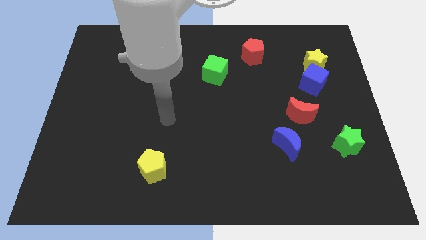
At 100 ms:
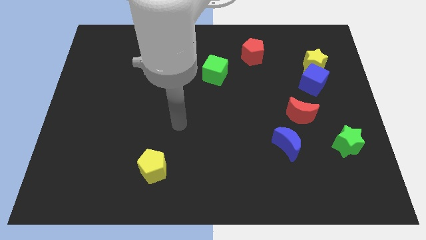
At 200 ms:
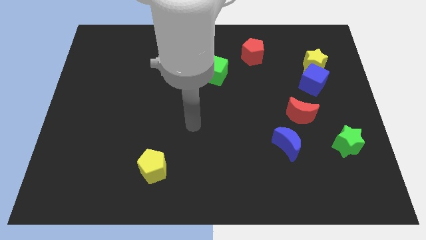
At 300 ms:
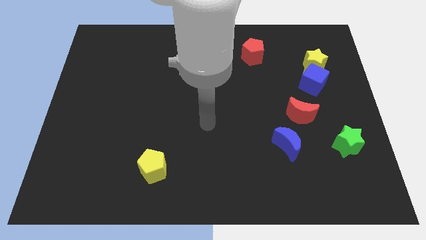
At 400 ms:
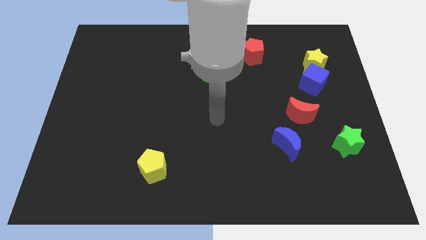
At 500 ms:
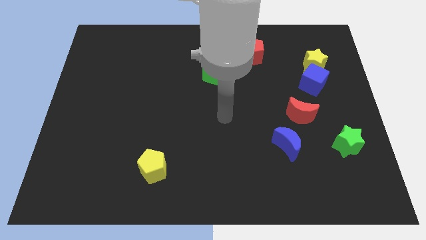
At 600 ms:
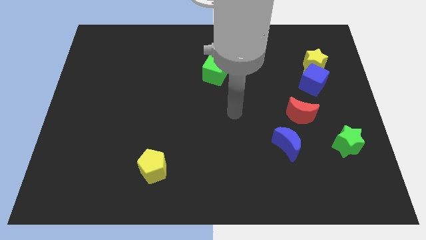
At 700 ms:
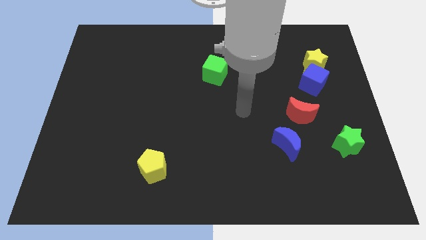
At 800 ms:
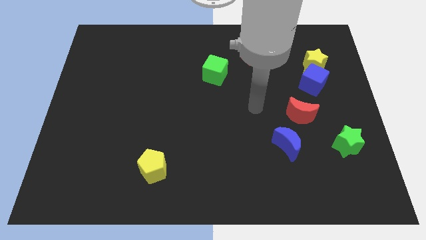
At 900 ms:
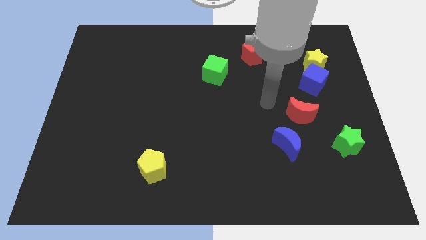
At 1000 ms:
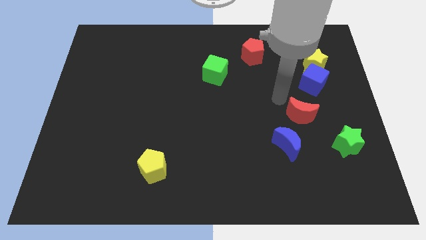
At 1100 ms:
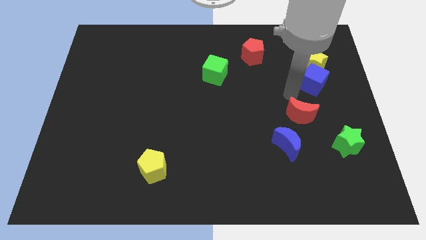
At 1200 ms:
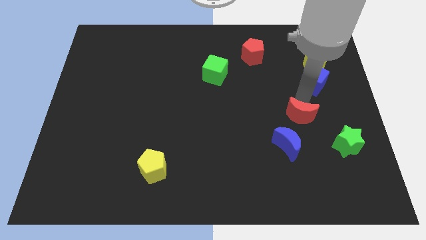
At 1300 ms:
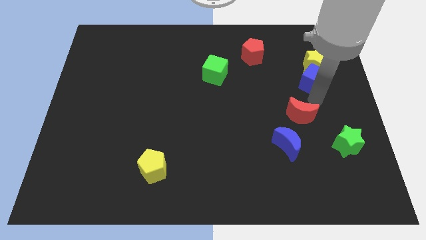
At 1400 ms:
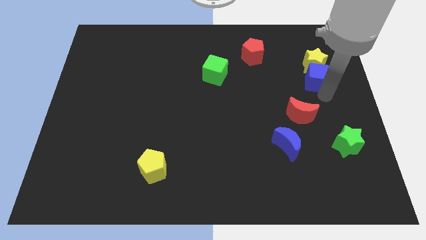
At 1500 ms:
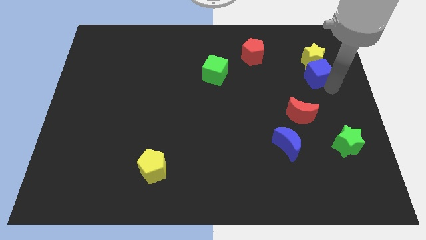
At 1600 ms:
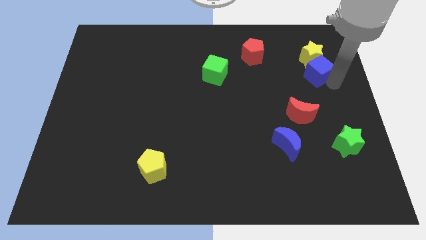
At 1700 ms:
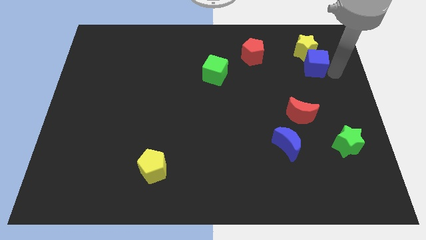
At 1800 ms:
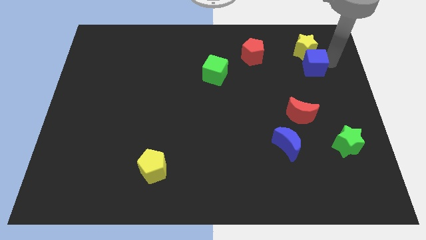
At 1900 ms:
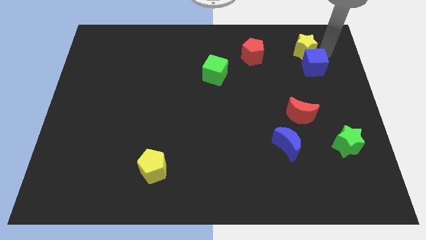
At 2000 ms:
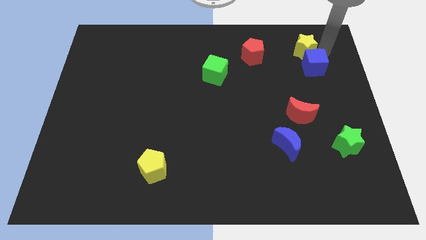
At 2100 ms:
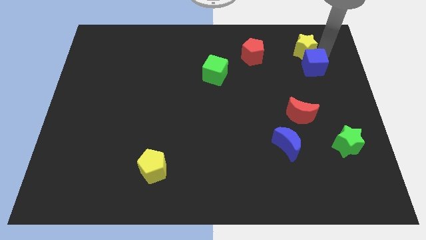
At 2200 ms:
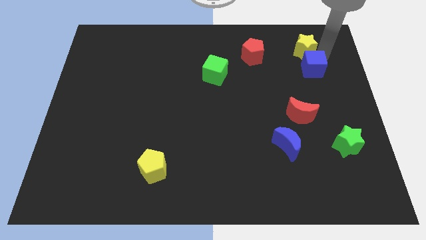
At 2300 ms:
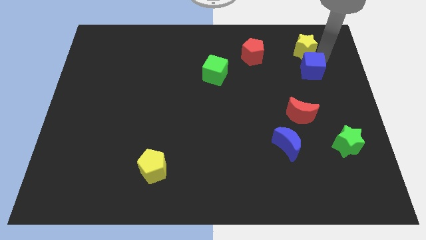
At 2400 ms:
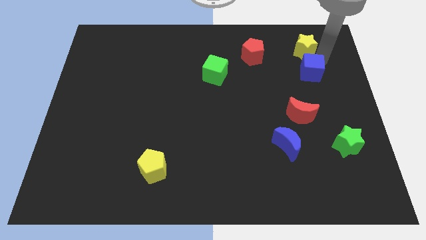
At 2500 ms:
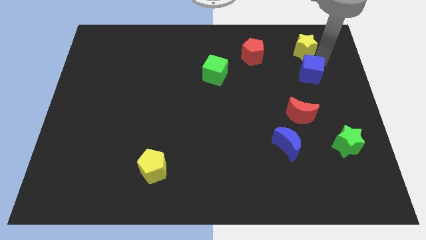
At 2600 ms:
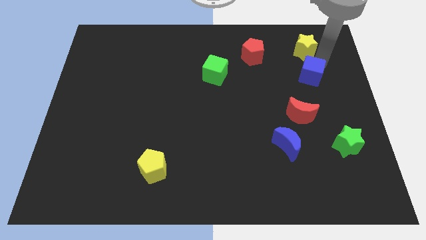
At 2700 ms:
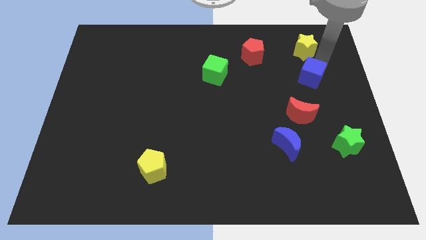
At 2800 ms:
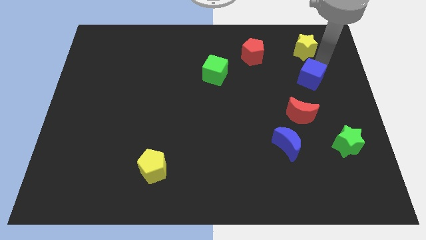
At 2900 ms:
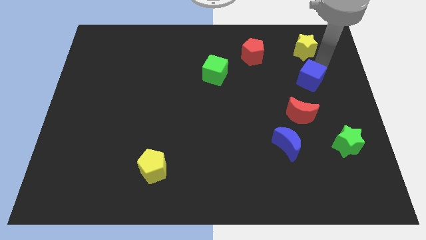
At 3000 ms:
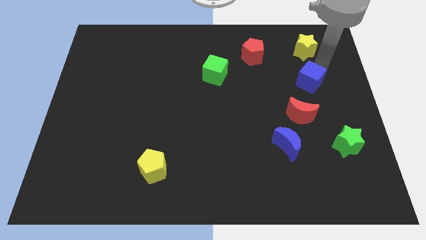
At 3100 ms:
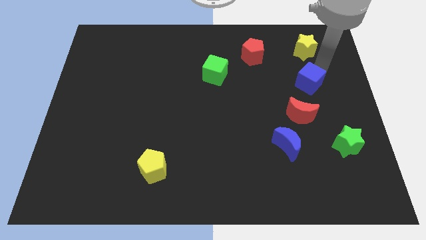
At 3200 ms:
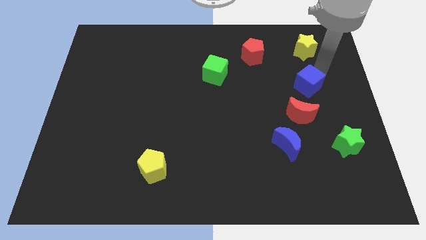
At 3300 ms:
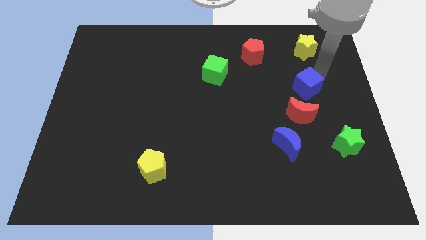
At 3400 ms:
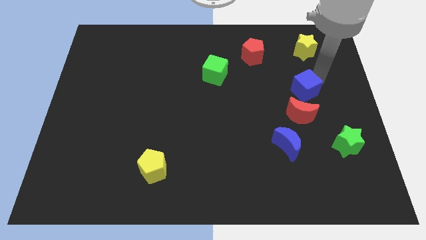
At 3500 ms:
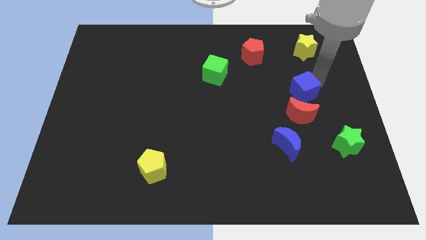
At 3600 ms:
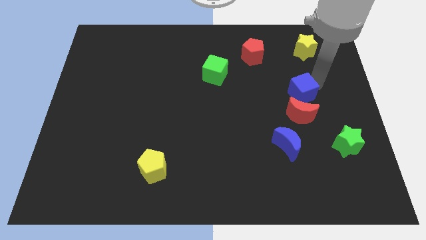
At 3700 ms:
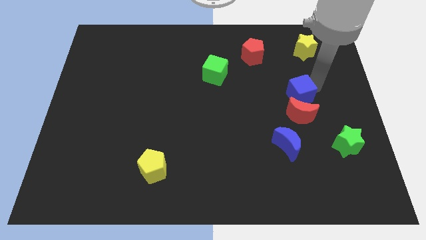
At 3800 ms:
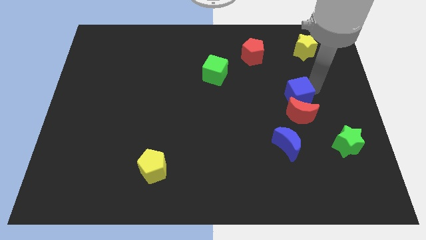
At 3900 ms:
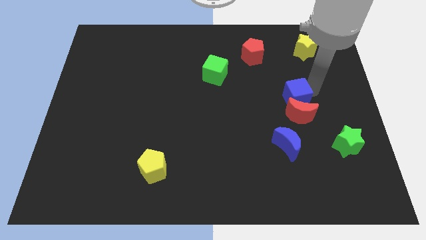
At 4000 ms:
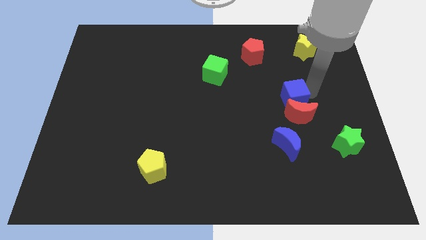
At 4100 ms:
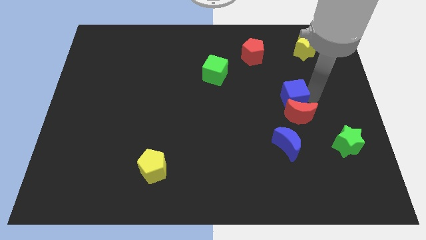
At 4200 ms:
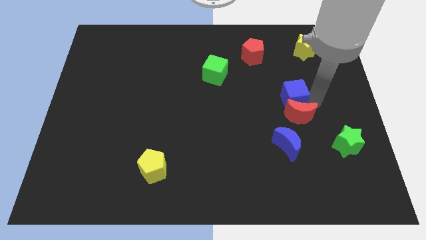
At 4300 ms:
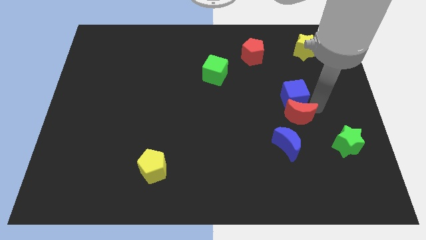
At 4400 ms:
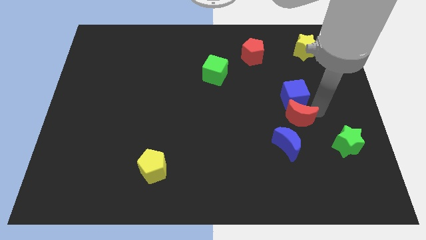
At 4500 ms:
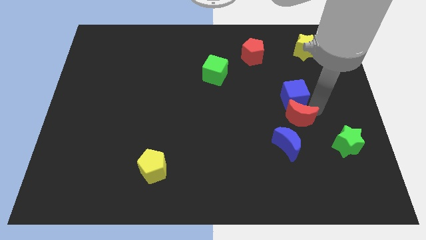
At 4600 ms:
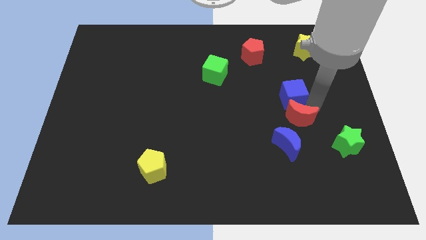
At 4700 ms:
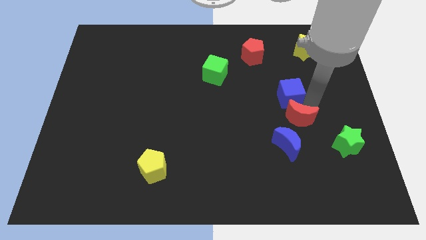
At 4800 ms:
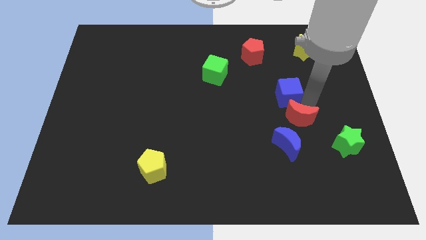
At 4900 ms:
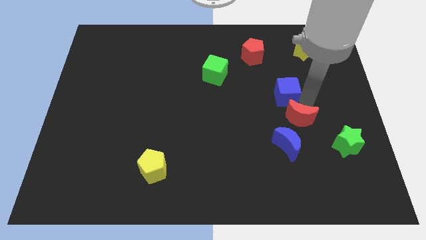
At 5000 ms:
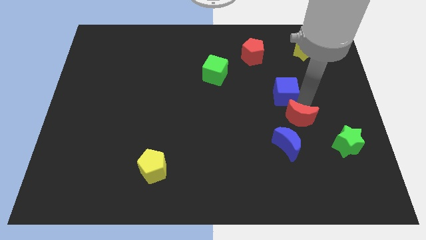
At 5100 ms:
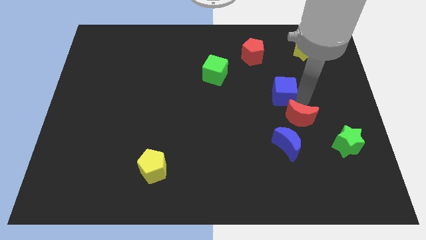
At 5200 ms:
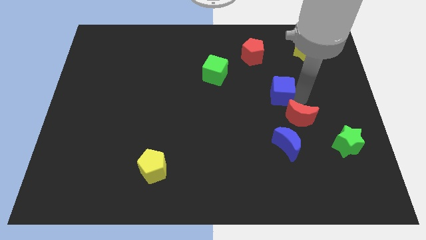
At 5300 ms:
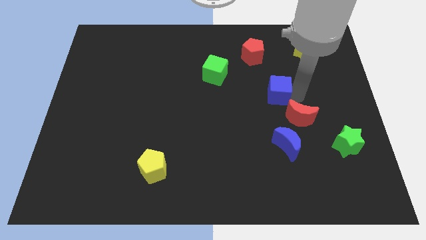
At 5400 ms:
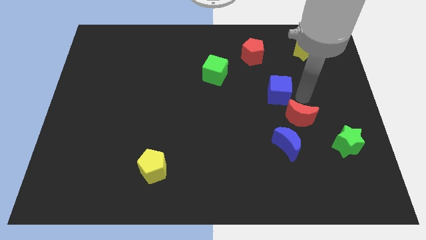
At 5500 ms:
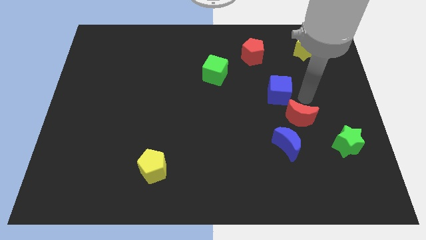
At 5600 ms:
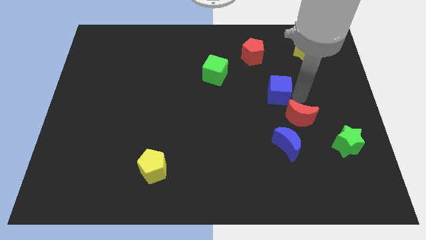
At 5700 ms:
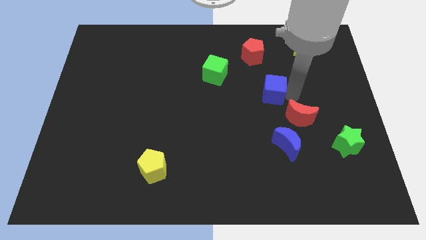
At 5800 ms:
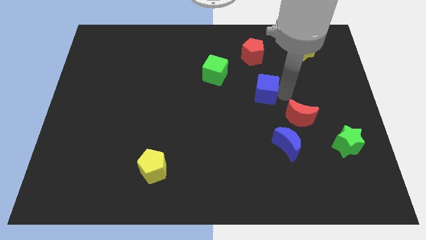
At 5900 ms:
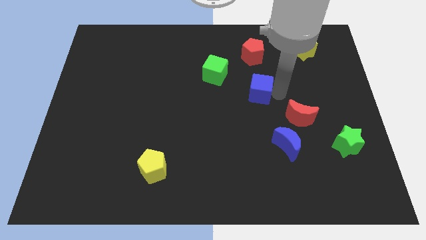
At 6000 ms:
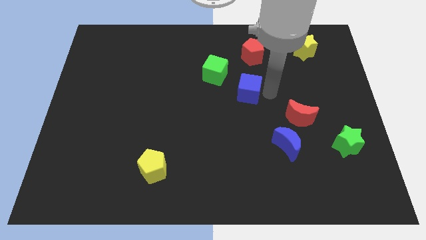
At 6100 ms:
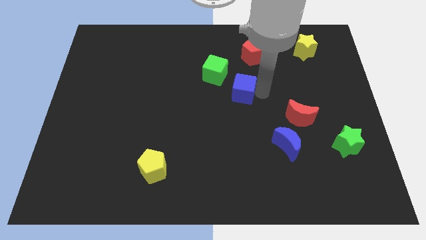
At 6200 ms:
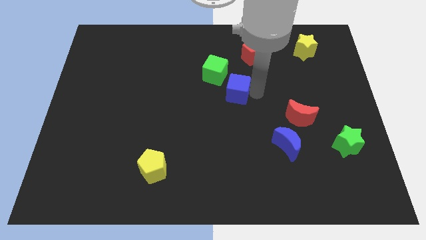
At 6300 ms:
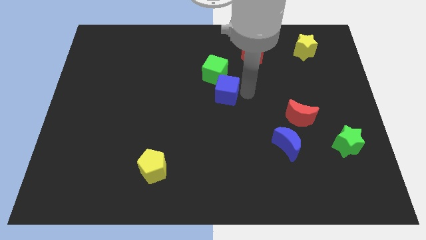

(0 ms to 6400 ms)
slide the blue cube left

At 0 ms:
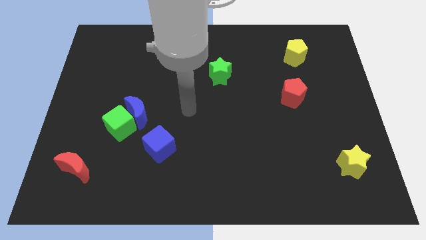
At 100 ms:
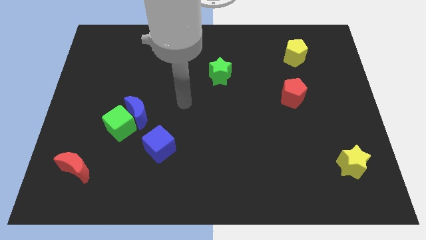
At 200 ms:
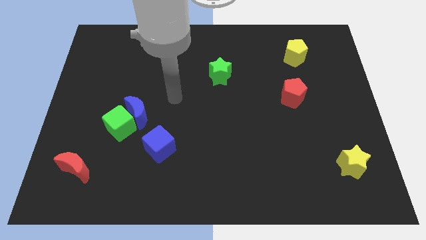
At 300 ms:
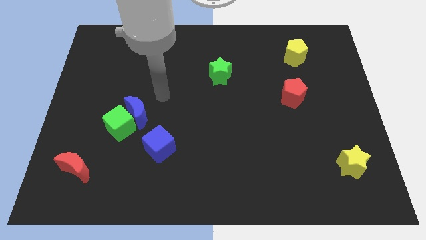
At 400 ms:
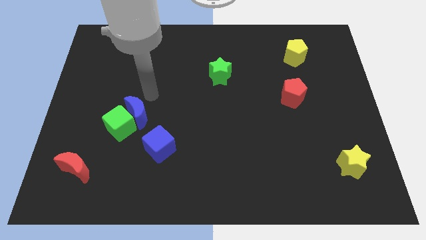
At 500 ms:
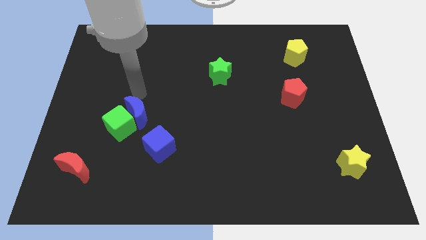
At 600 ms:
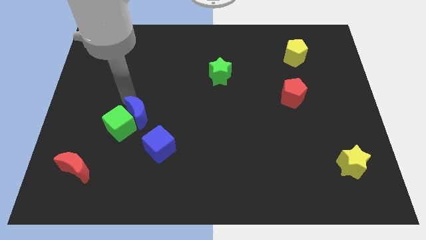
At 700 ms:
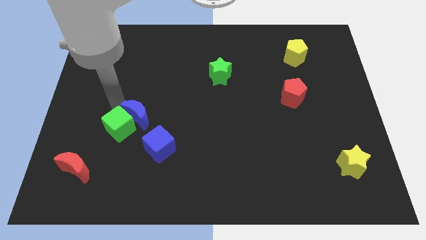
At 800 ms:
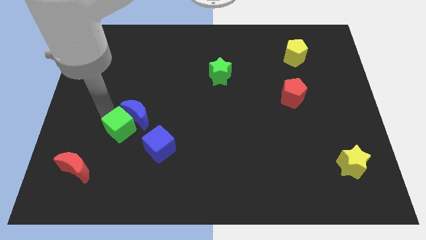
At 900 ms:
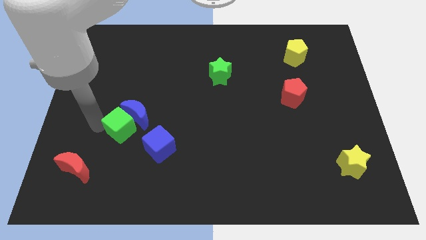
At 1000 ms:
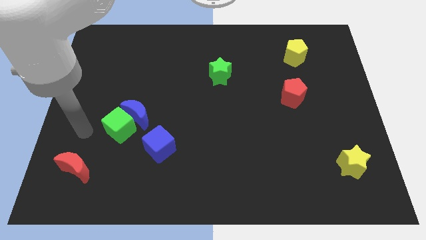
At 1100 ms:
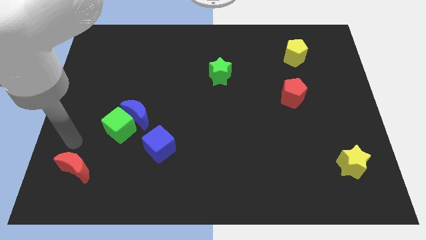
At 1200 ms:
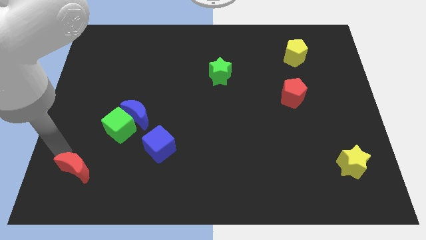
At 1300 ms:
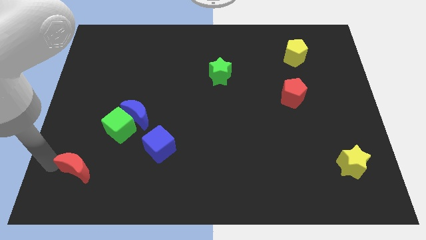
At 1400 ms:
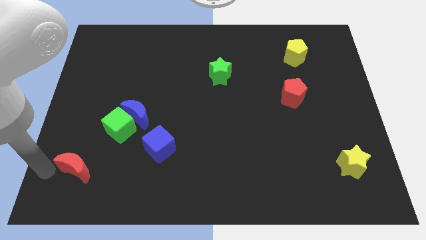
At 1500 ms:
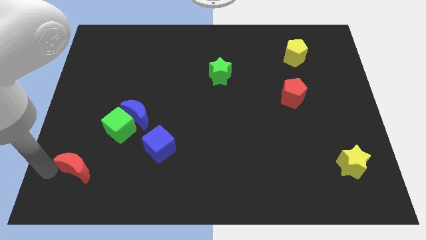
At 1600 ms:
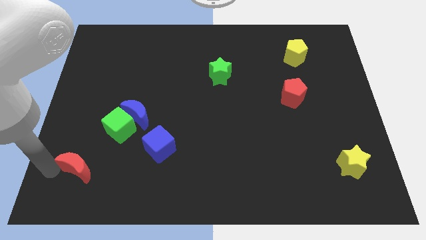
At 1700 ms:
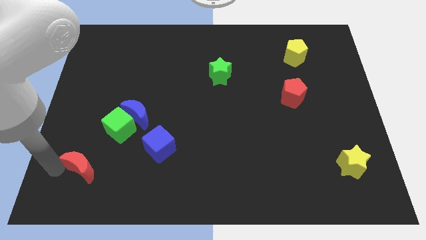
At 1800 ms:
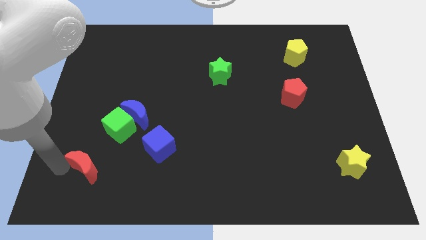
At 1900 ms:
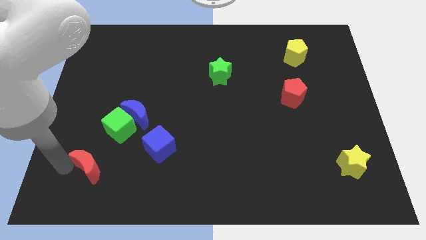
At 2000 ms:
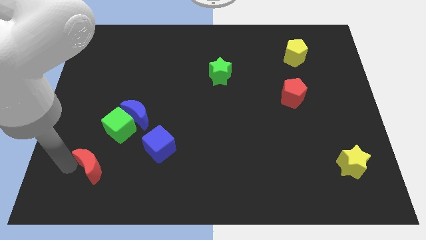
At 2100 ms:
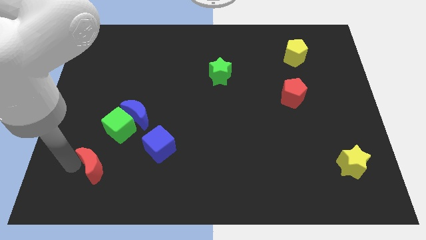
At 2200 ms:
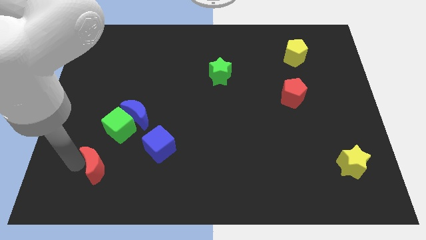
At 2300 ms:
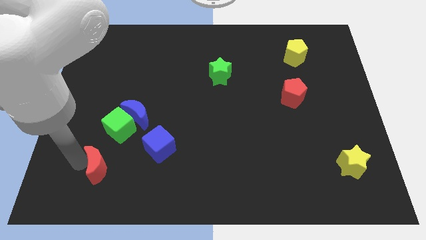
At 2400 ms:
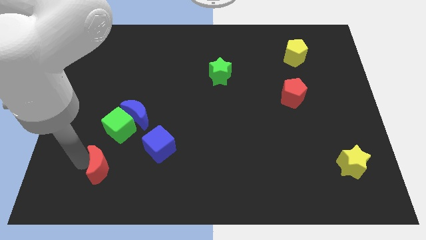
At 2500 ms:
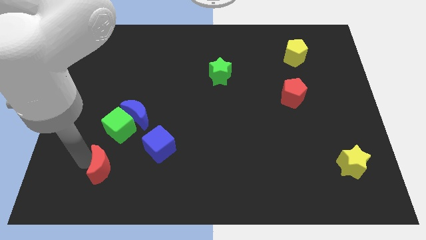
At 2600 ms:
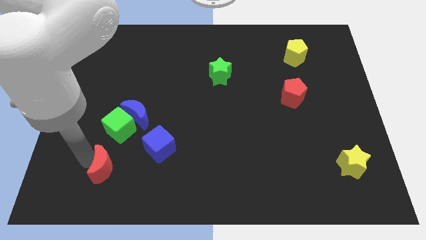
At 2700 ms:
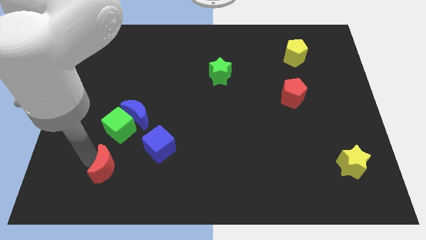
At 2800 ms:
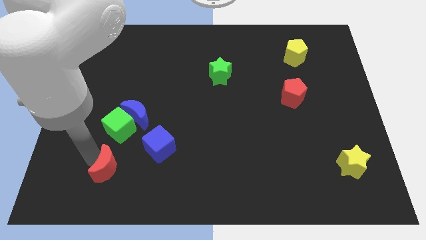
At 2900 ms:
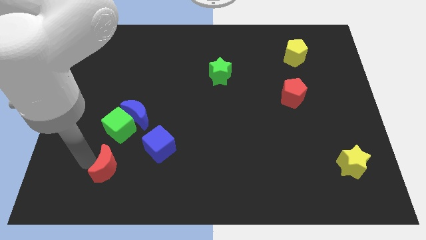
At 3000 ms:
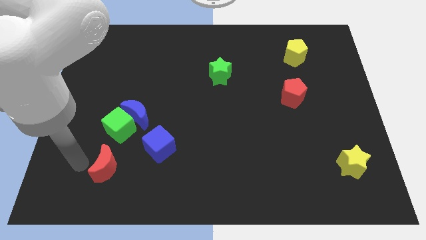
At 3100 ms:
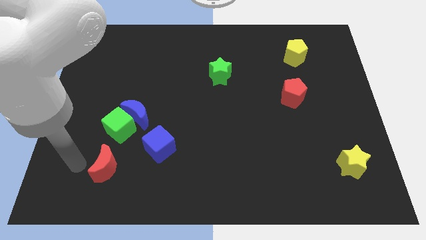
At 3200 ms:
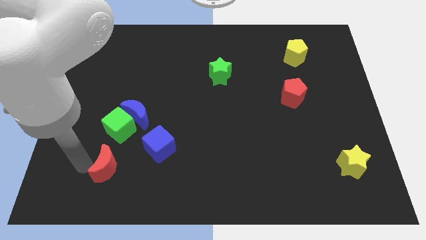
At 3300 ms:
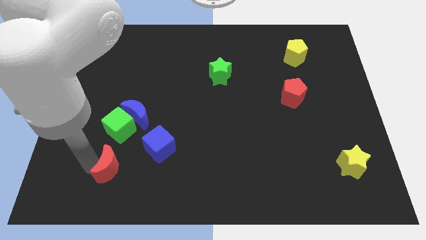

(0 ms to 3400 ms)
slightly slide the red moon right
